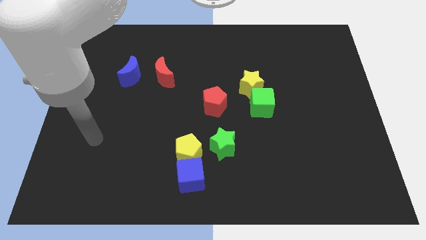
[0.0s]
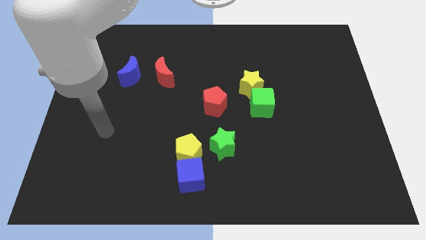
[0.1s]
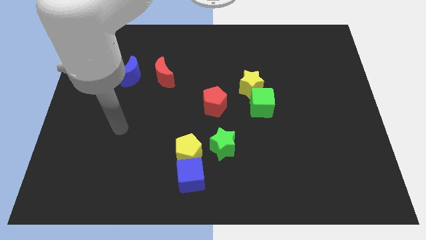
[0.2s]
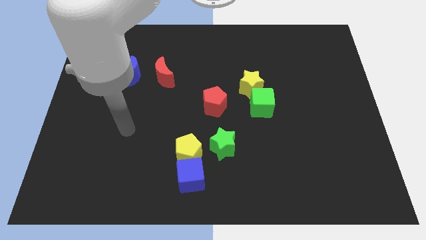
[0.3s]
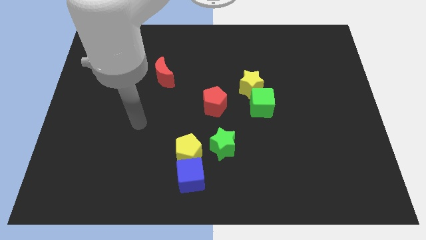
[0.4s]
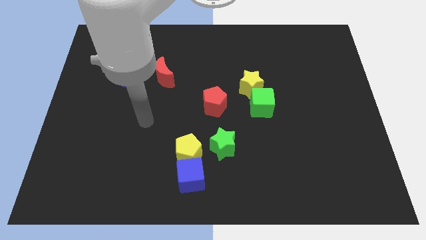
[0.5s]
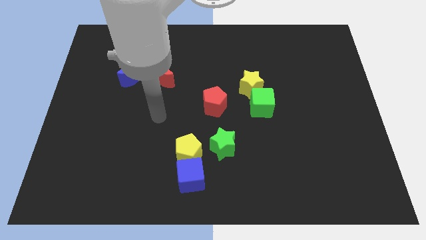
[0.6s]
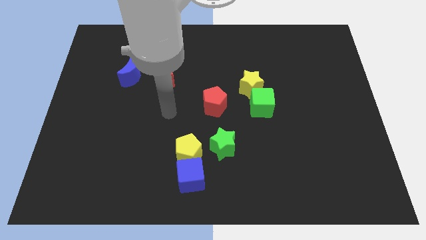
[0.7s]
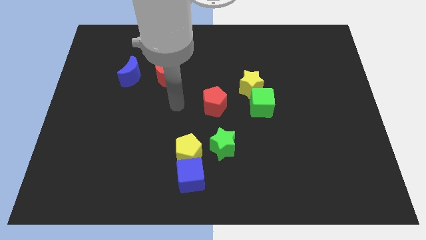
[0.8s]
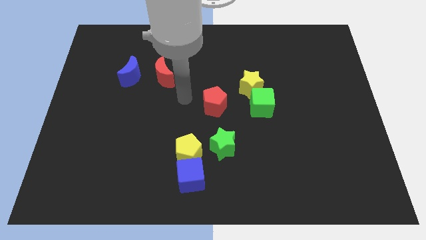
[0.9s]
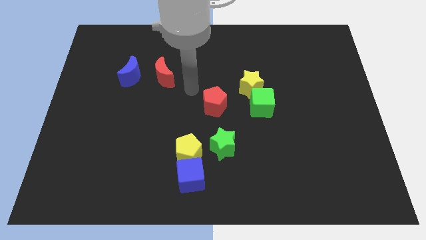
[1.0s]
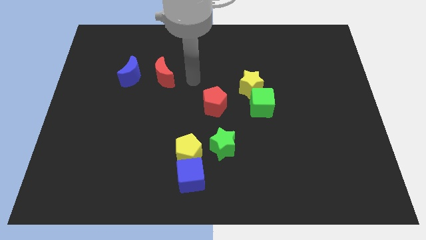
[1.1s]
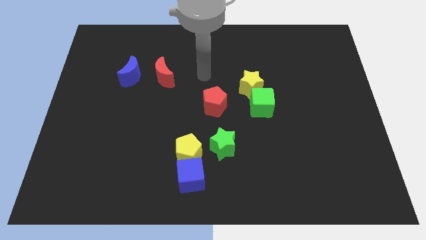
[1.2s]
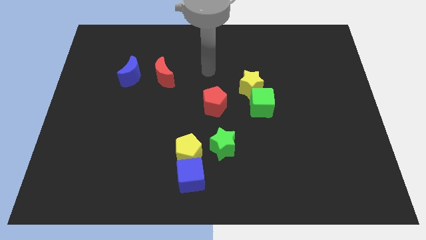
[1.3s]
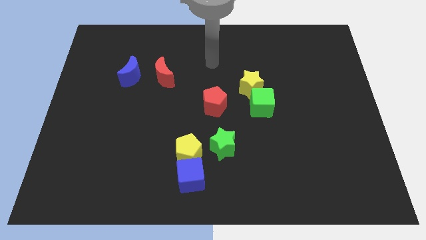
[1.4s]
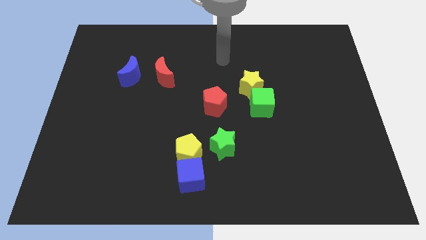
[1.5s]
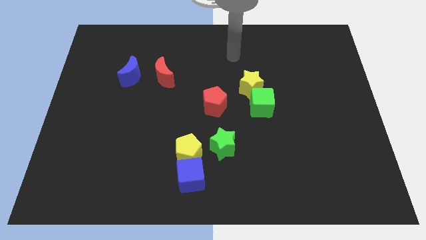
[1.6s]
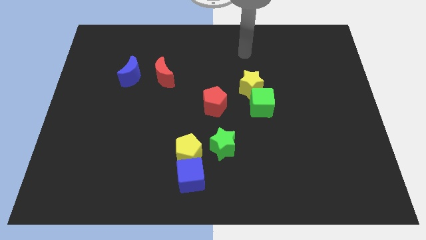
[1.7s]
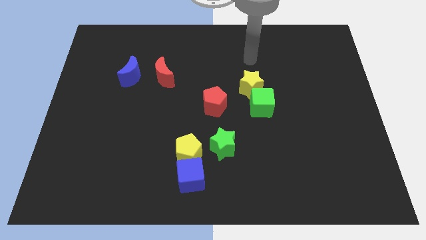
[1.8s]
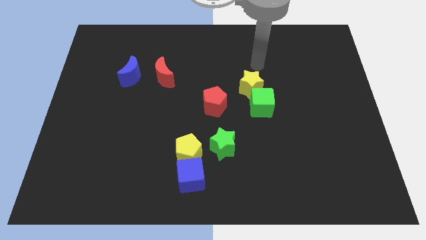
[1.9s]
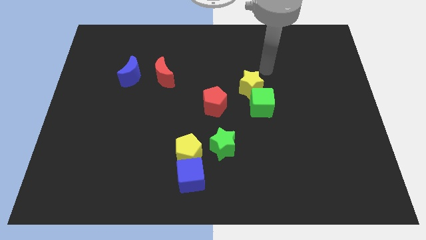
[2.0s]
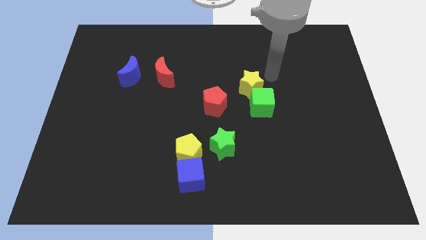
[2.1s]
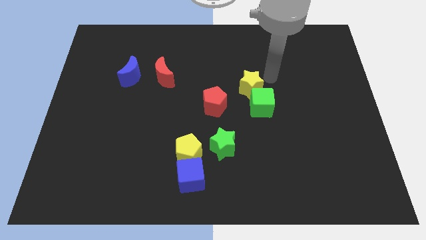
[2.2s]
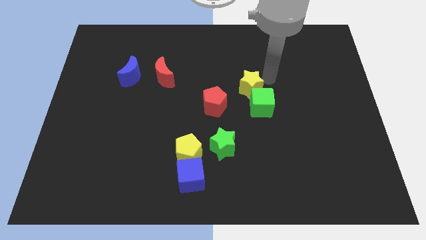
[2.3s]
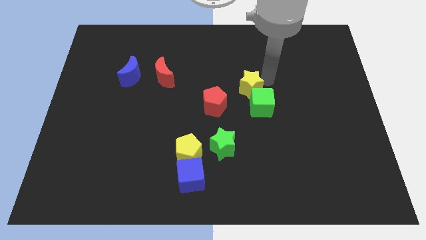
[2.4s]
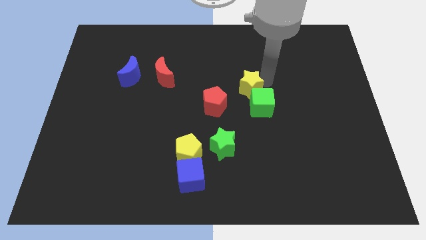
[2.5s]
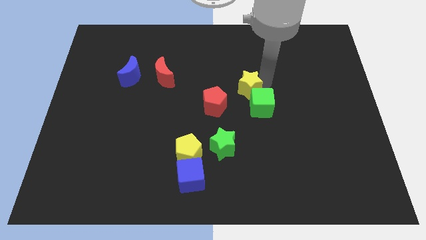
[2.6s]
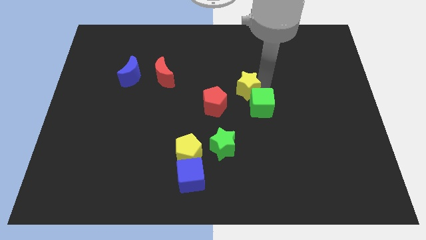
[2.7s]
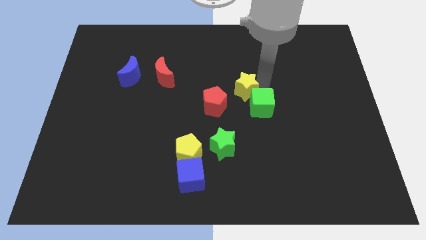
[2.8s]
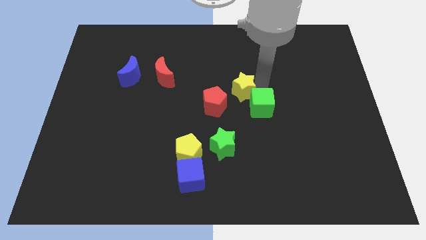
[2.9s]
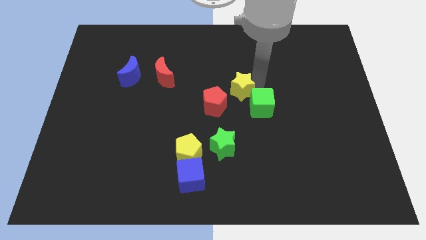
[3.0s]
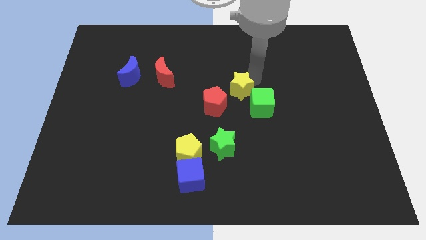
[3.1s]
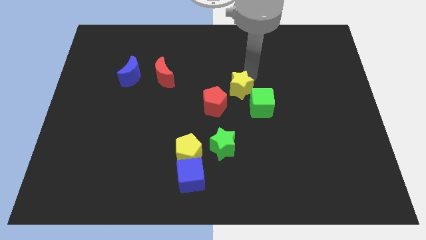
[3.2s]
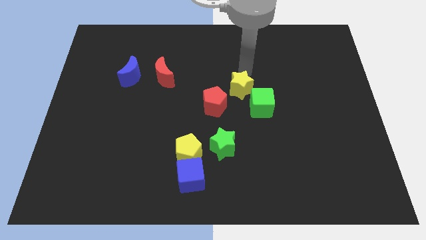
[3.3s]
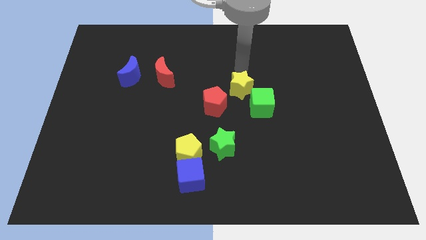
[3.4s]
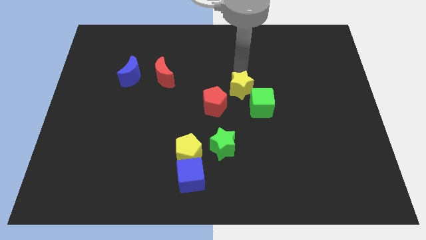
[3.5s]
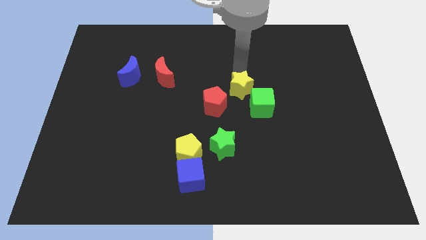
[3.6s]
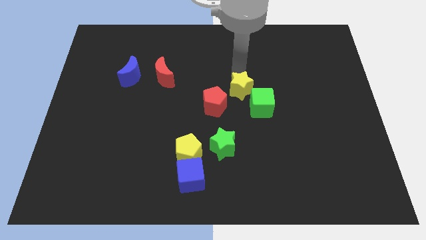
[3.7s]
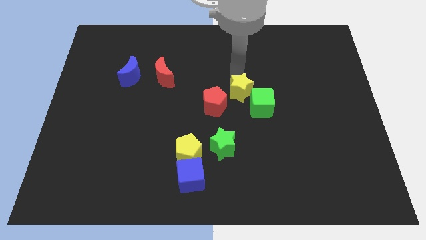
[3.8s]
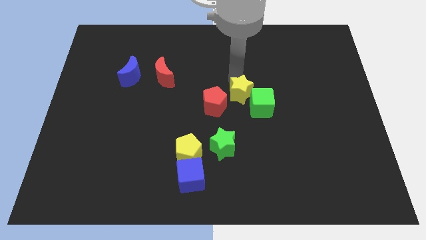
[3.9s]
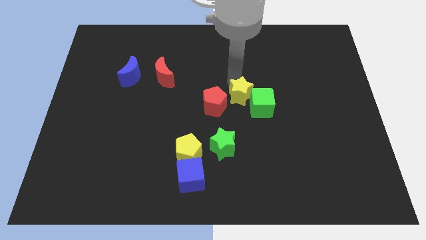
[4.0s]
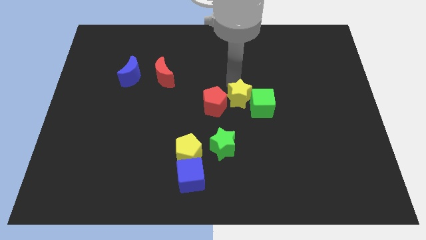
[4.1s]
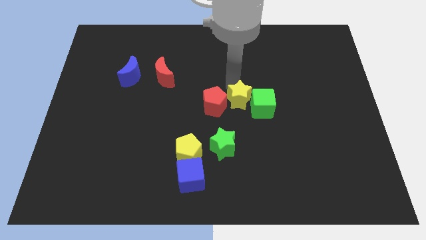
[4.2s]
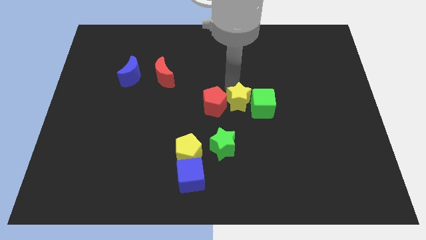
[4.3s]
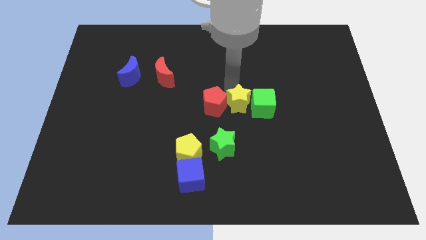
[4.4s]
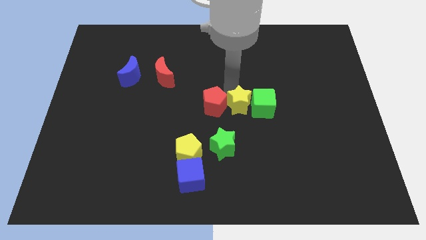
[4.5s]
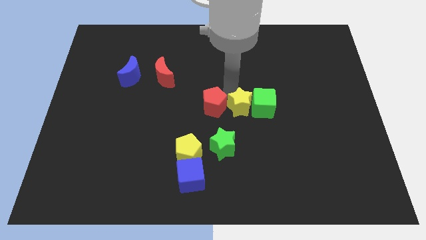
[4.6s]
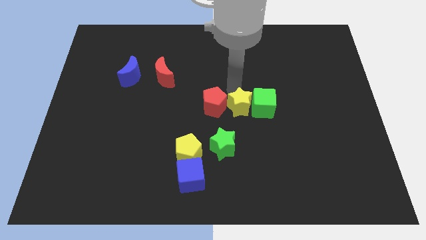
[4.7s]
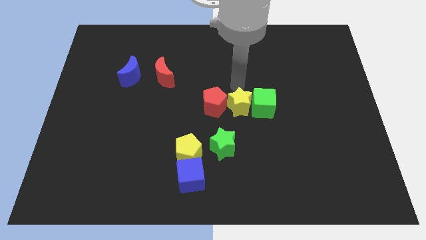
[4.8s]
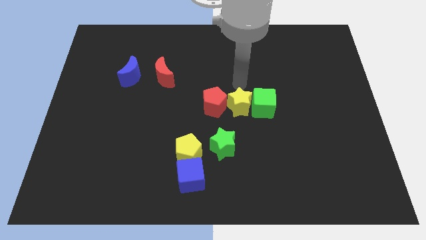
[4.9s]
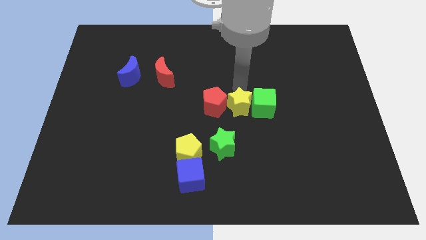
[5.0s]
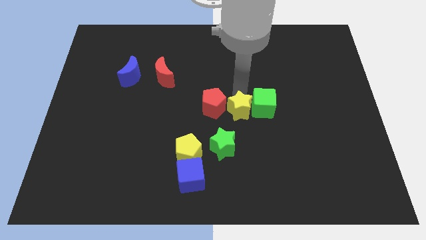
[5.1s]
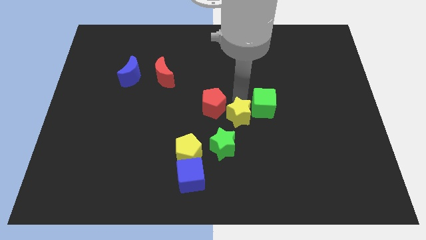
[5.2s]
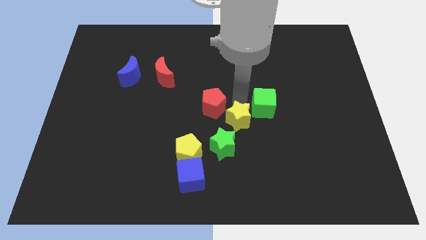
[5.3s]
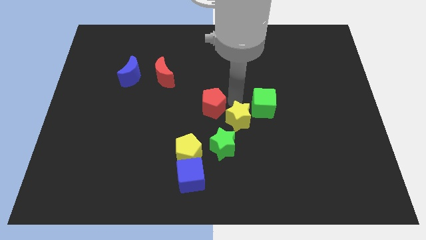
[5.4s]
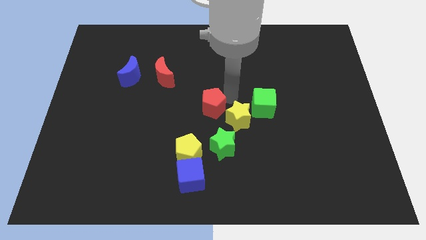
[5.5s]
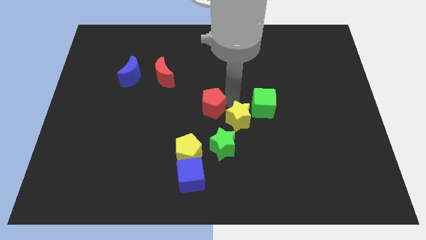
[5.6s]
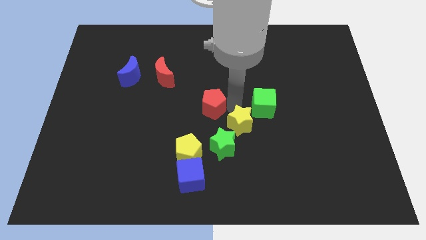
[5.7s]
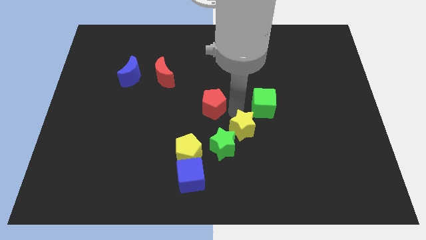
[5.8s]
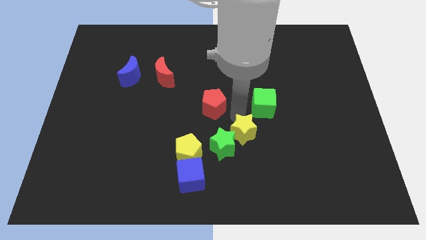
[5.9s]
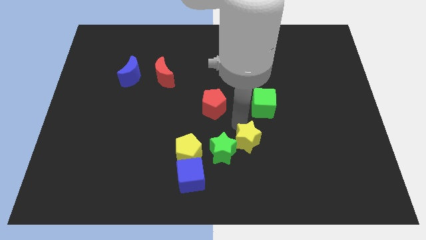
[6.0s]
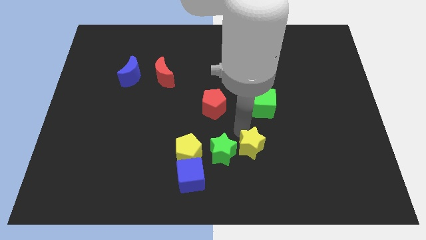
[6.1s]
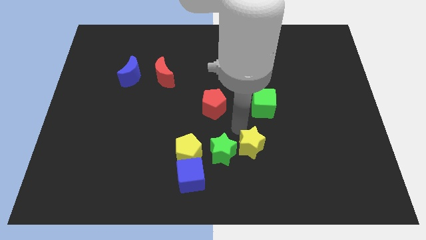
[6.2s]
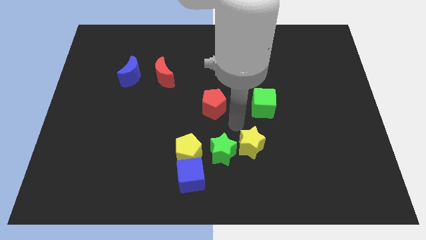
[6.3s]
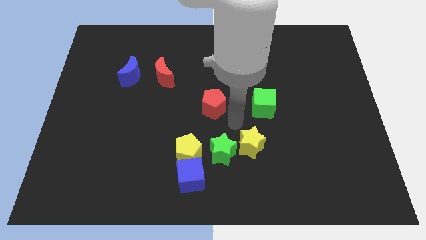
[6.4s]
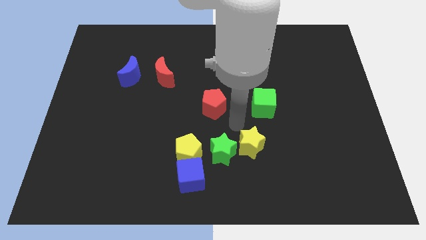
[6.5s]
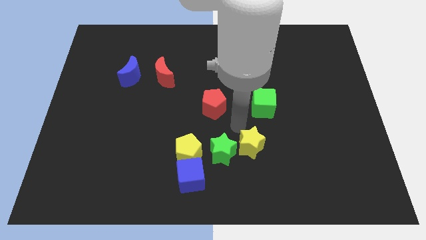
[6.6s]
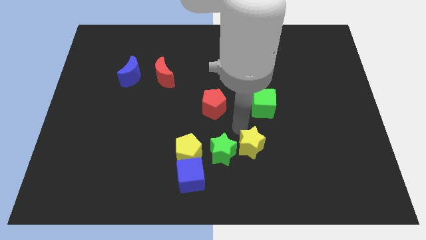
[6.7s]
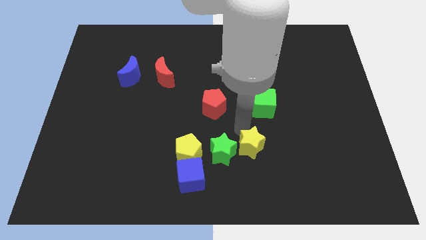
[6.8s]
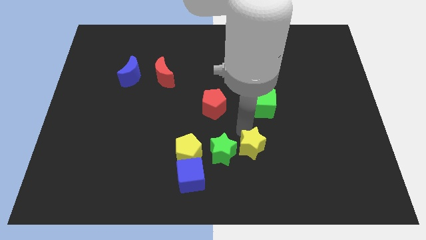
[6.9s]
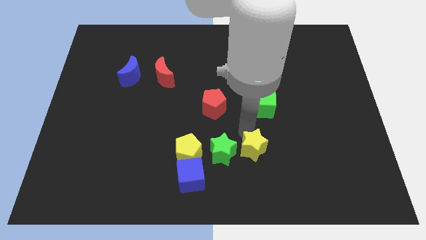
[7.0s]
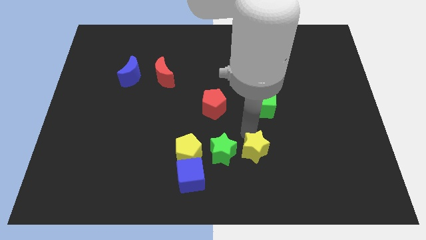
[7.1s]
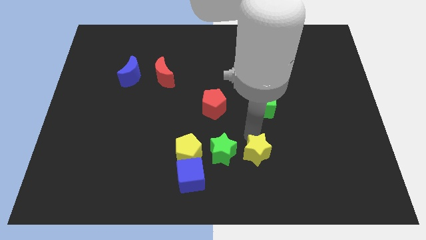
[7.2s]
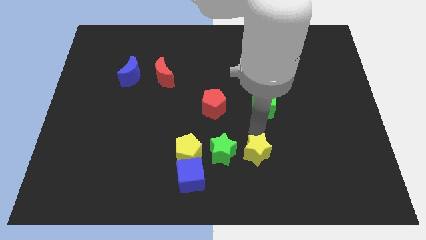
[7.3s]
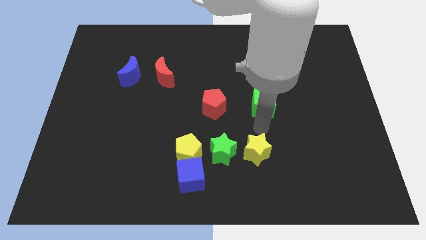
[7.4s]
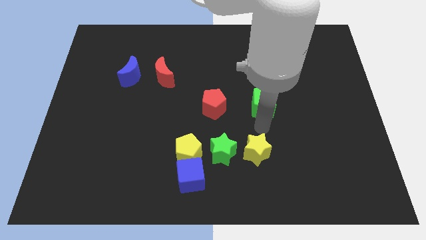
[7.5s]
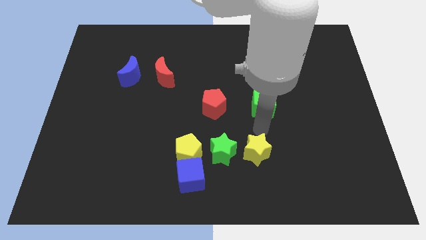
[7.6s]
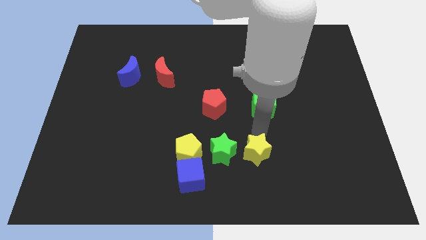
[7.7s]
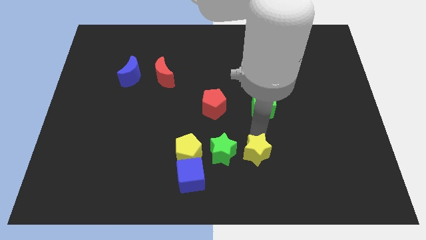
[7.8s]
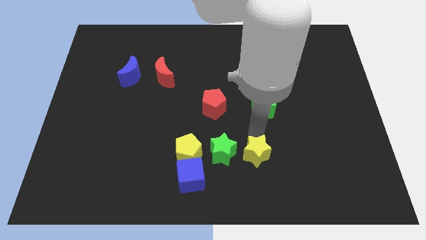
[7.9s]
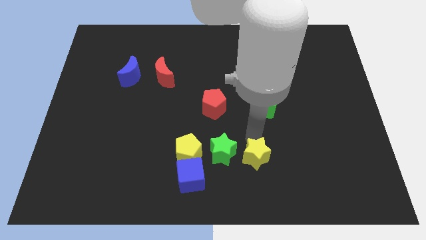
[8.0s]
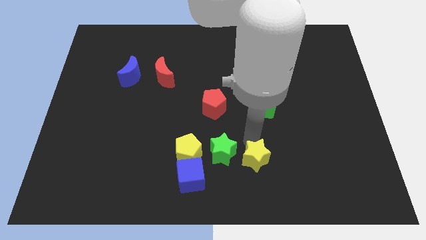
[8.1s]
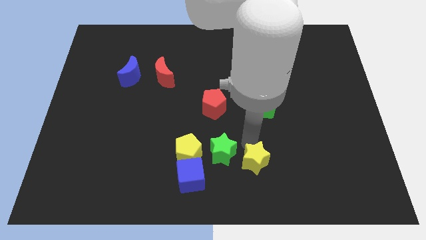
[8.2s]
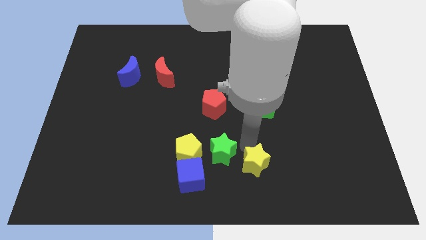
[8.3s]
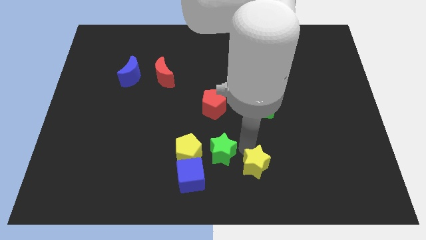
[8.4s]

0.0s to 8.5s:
put the yellow star to the bottom
